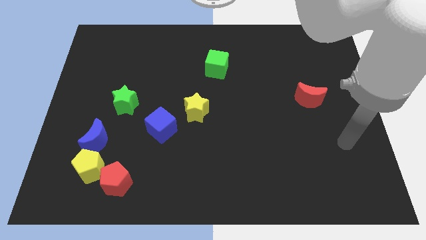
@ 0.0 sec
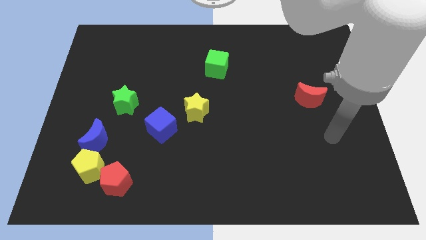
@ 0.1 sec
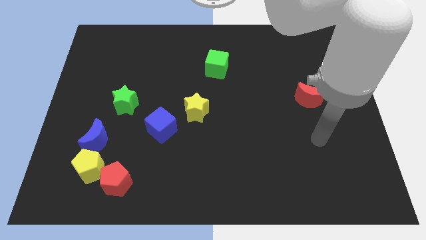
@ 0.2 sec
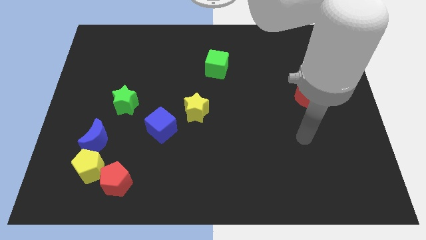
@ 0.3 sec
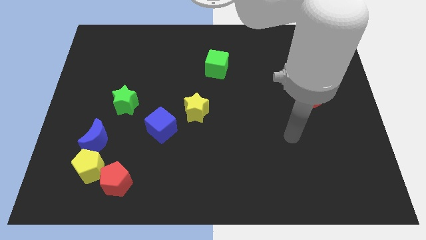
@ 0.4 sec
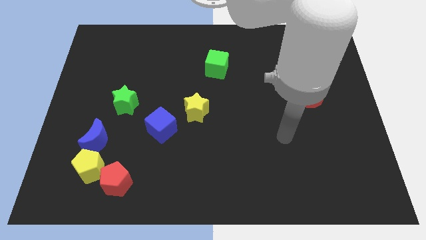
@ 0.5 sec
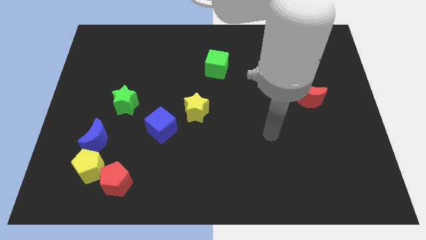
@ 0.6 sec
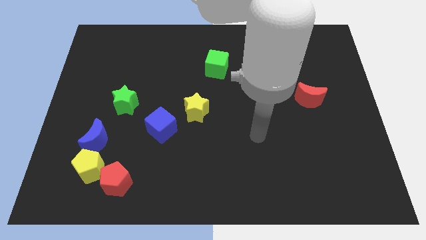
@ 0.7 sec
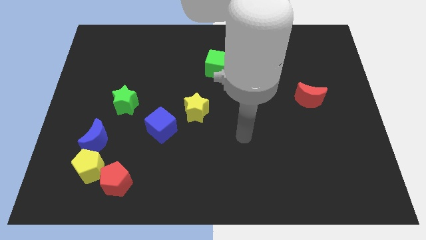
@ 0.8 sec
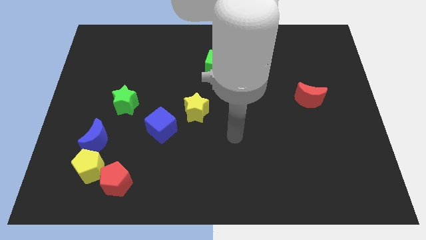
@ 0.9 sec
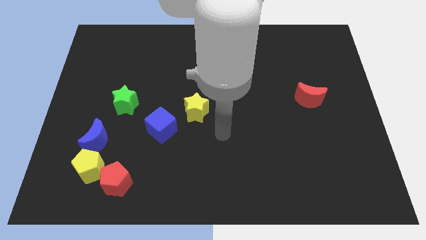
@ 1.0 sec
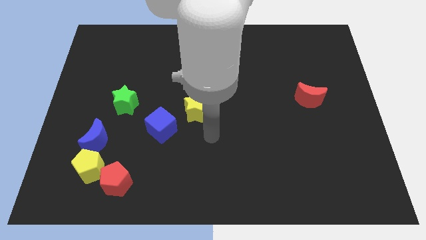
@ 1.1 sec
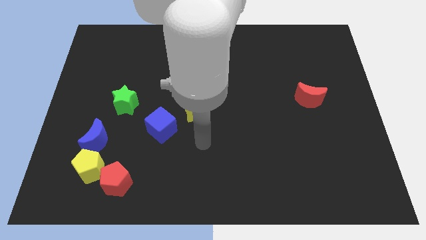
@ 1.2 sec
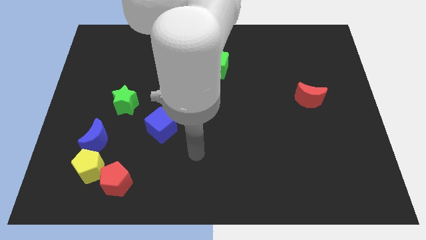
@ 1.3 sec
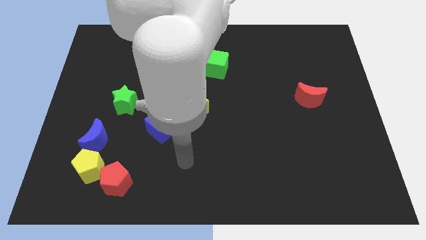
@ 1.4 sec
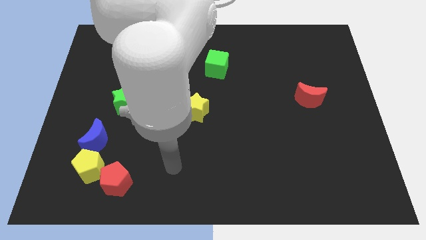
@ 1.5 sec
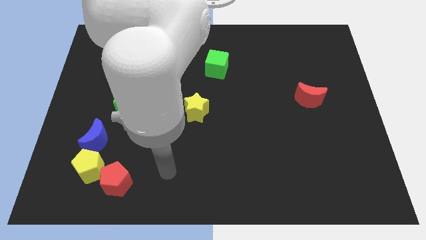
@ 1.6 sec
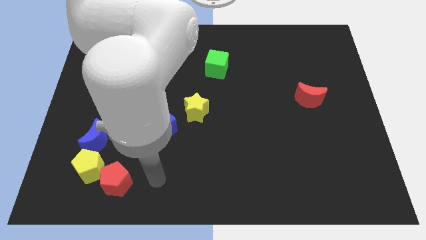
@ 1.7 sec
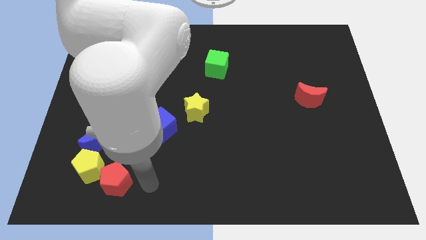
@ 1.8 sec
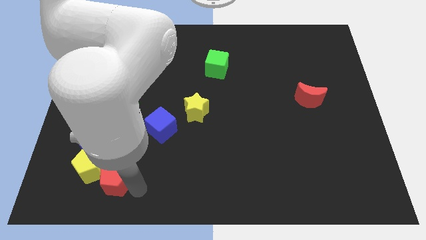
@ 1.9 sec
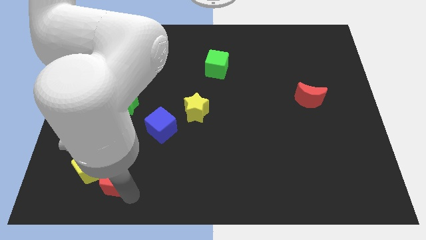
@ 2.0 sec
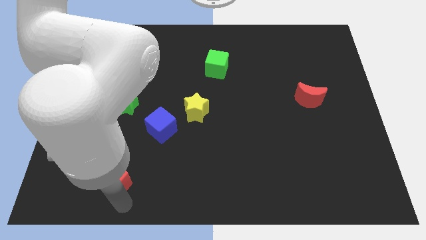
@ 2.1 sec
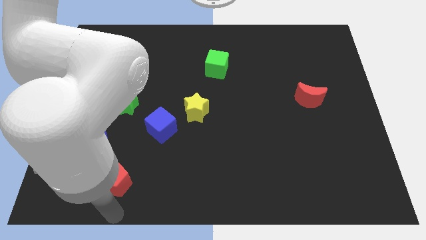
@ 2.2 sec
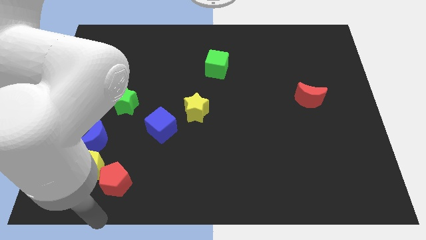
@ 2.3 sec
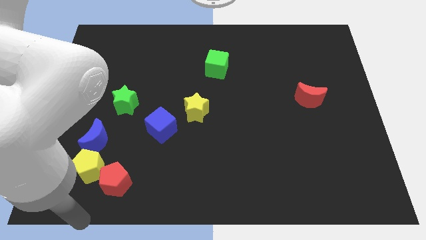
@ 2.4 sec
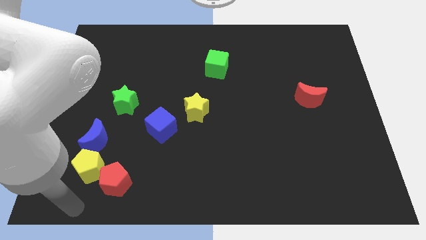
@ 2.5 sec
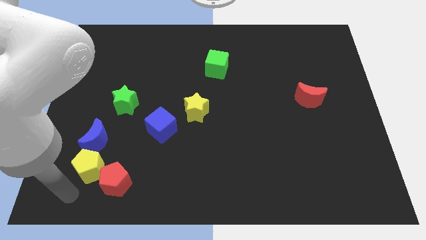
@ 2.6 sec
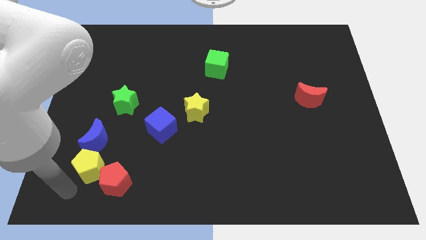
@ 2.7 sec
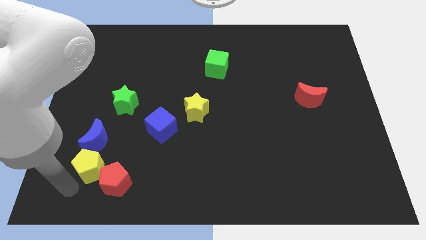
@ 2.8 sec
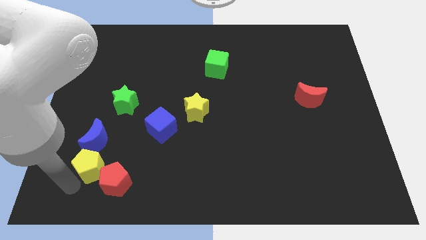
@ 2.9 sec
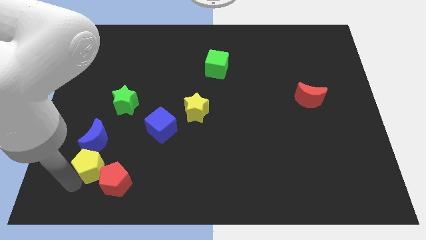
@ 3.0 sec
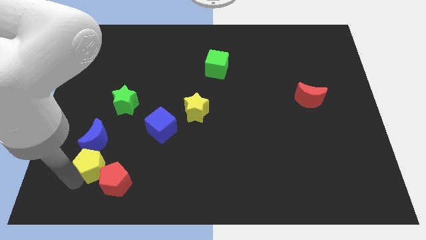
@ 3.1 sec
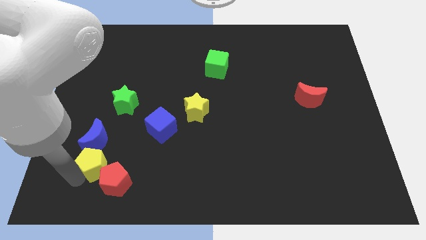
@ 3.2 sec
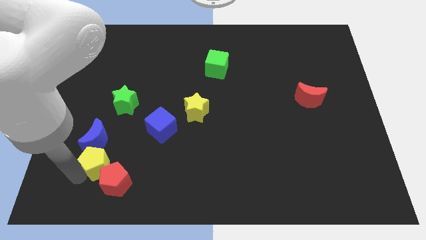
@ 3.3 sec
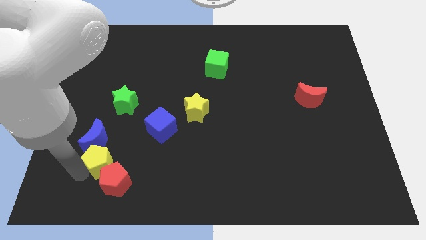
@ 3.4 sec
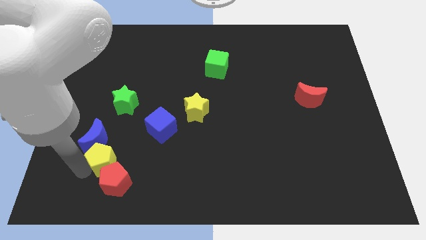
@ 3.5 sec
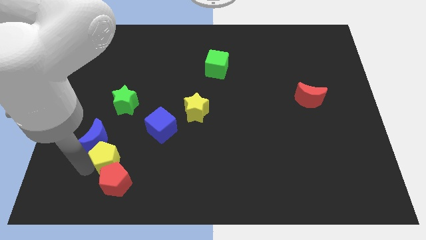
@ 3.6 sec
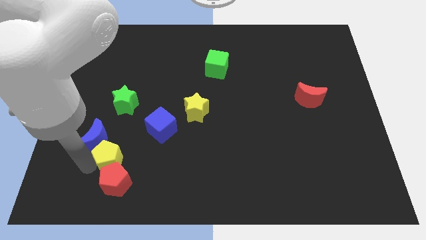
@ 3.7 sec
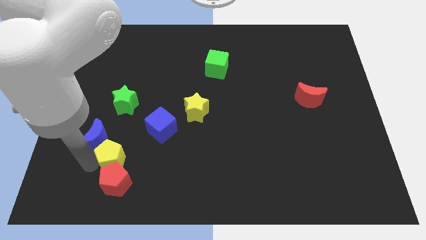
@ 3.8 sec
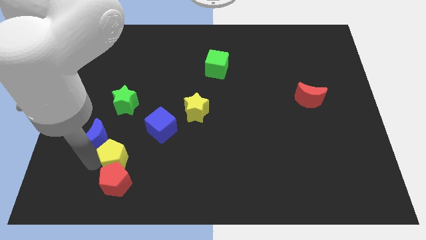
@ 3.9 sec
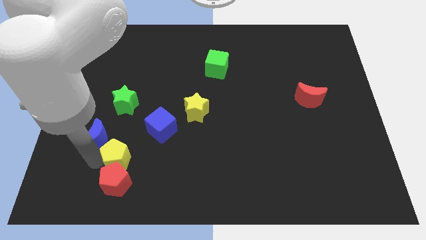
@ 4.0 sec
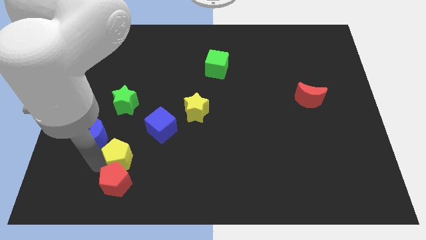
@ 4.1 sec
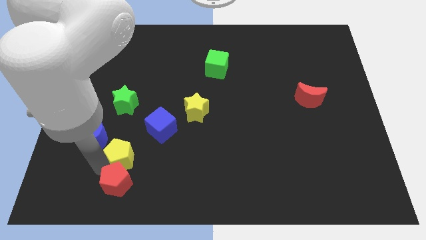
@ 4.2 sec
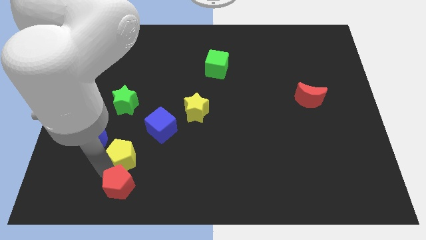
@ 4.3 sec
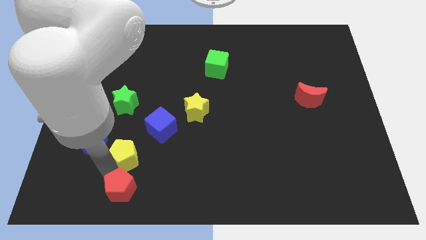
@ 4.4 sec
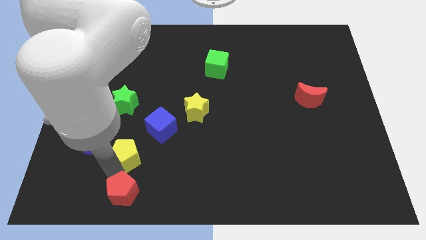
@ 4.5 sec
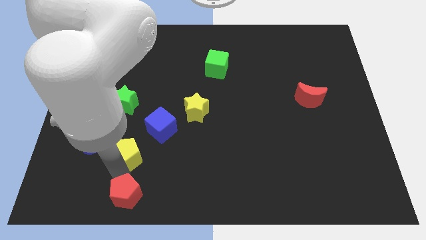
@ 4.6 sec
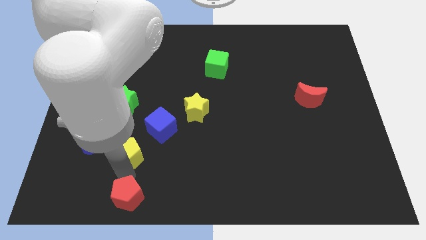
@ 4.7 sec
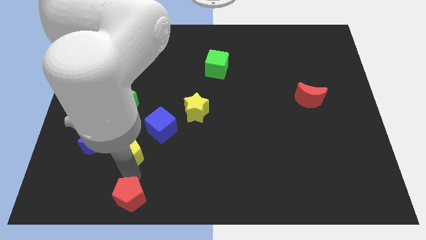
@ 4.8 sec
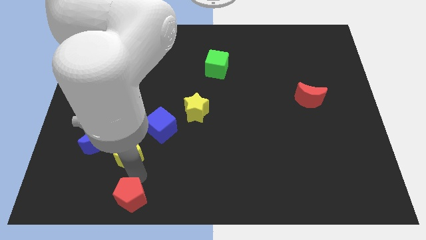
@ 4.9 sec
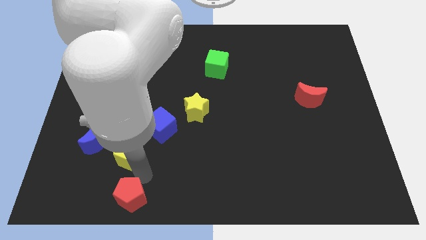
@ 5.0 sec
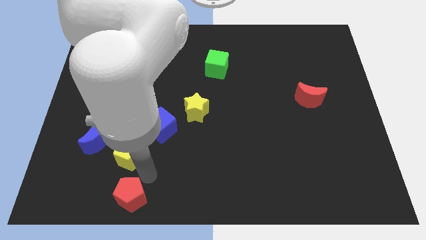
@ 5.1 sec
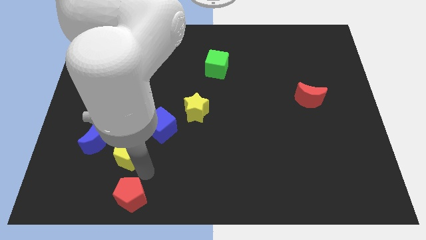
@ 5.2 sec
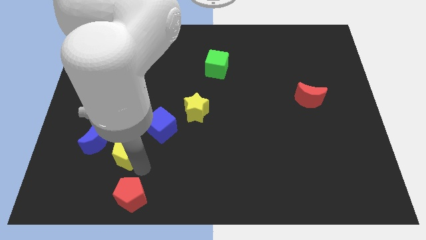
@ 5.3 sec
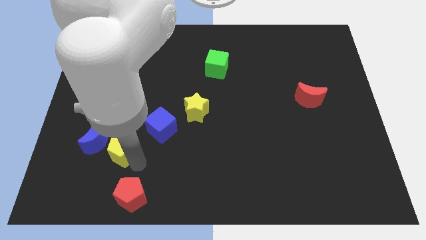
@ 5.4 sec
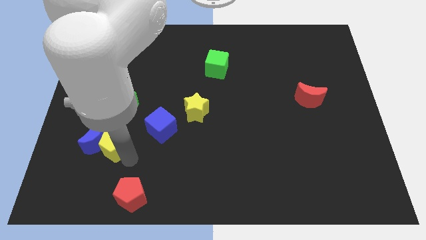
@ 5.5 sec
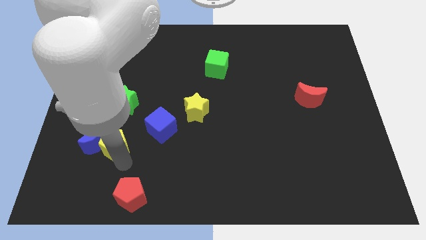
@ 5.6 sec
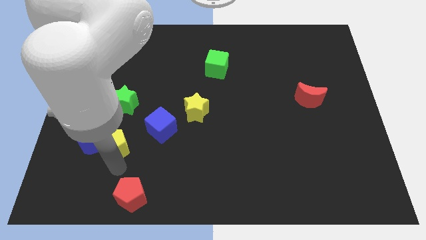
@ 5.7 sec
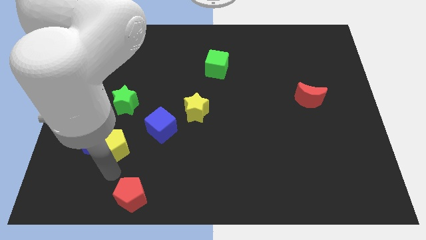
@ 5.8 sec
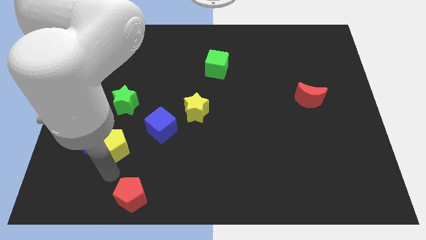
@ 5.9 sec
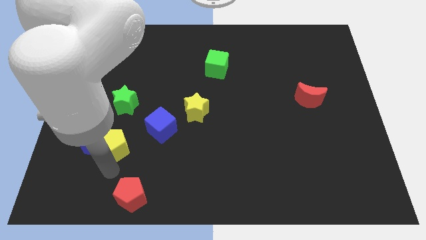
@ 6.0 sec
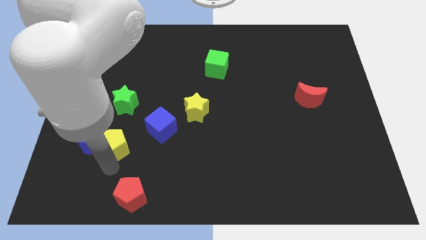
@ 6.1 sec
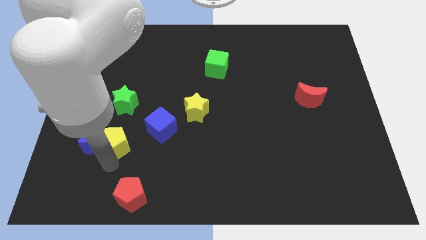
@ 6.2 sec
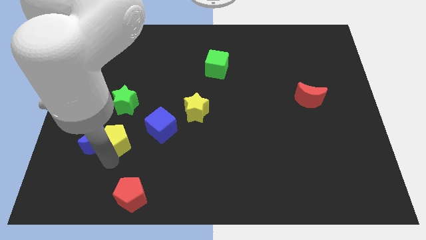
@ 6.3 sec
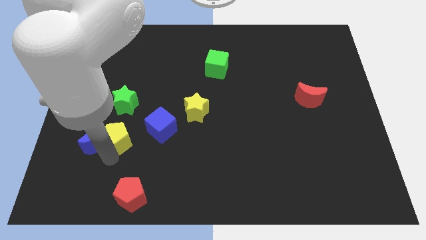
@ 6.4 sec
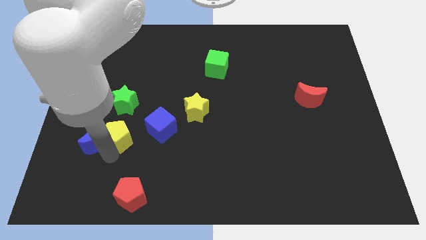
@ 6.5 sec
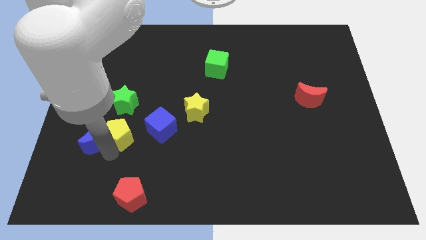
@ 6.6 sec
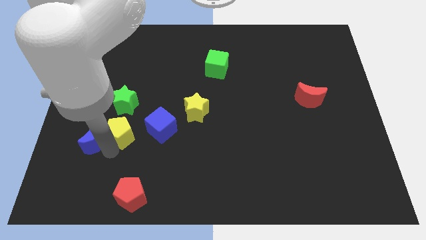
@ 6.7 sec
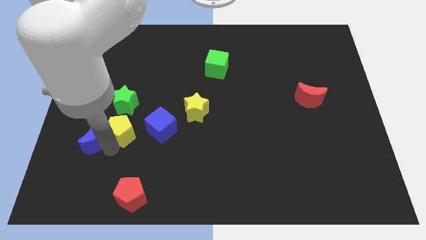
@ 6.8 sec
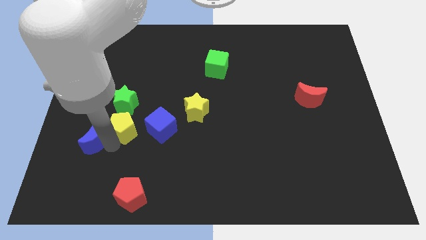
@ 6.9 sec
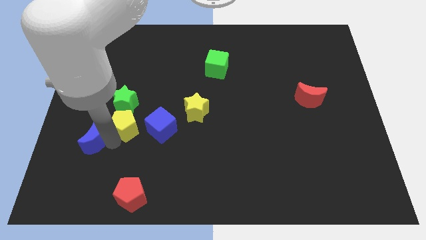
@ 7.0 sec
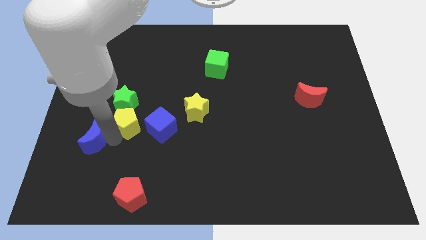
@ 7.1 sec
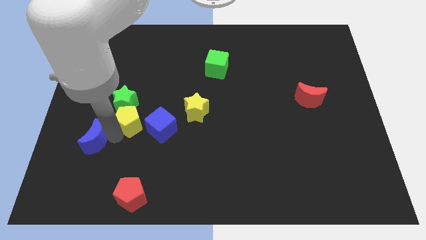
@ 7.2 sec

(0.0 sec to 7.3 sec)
slide the yellow pentagon close to the green star

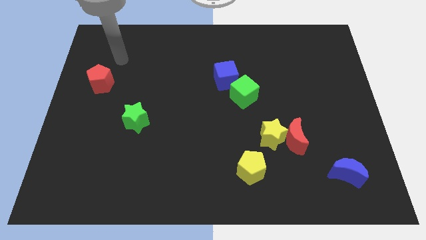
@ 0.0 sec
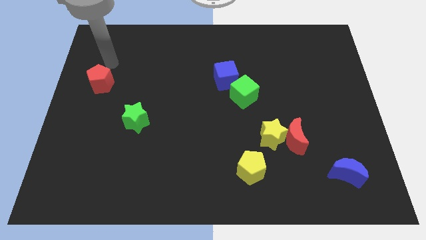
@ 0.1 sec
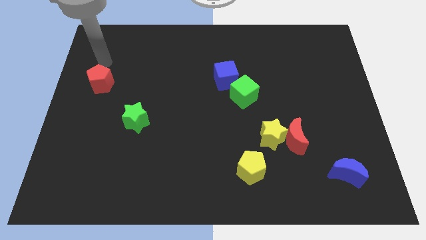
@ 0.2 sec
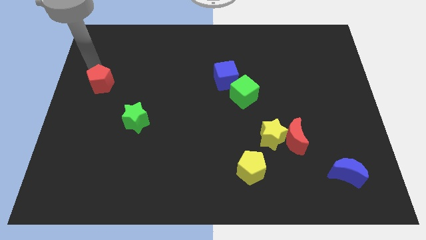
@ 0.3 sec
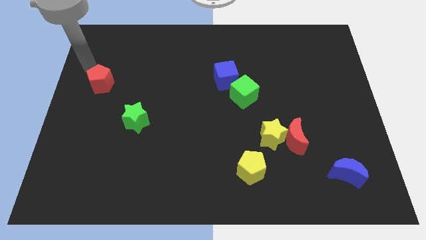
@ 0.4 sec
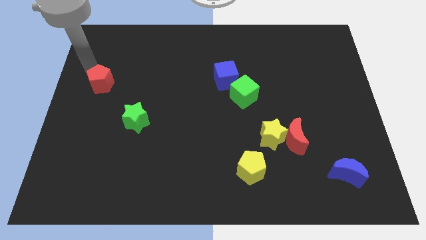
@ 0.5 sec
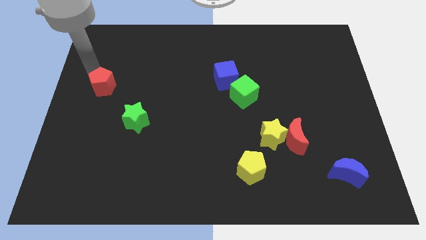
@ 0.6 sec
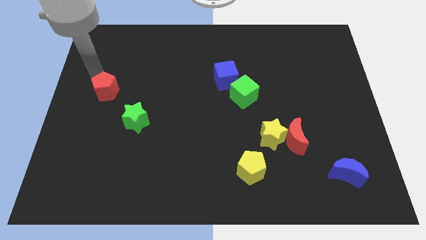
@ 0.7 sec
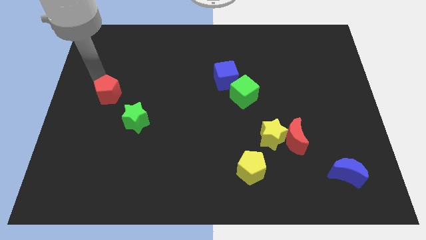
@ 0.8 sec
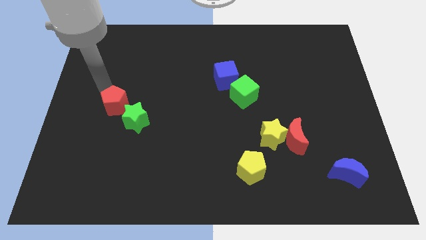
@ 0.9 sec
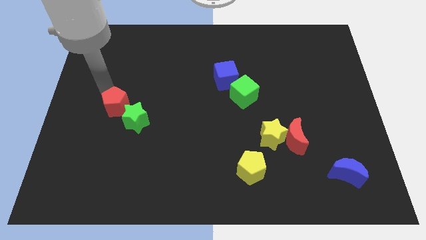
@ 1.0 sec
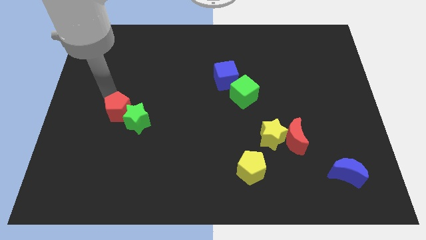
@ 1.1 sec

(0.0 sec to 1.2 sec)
put the red pentagon towards the green star
